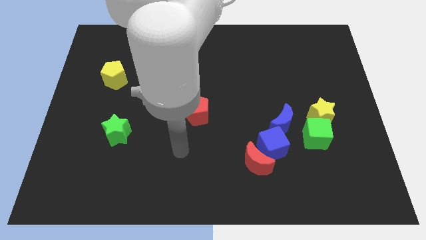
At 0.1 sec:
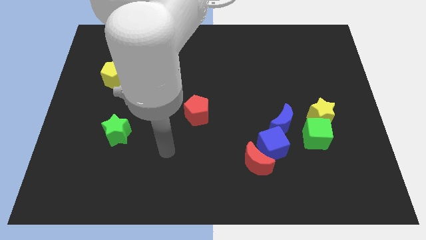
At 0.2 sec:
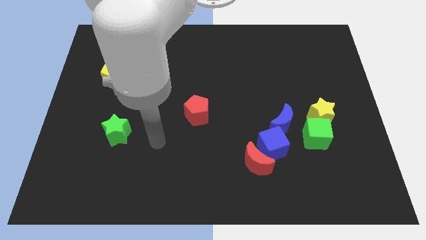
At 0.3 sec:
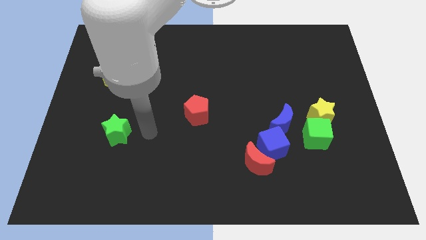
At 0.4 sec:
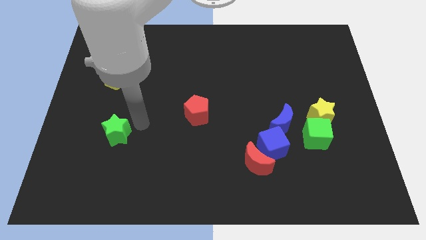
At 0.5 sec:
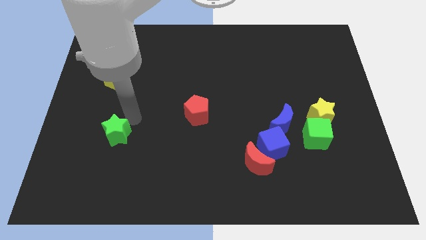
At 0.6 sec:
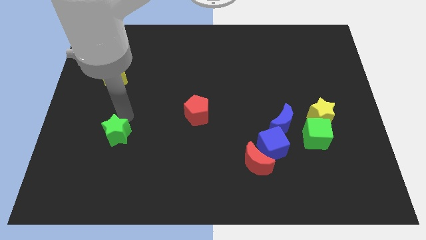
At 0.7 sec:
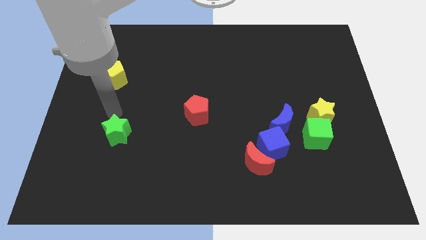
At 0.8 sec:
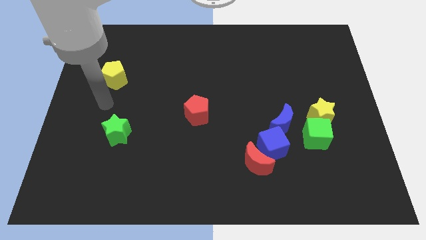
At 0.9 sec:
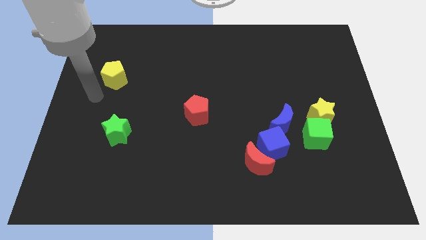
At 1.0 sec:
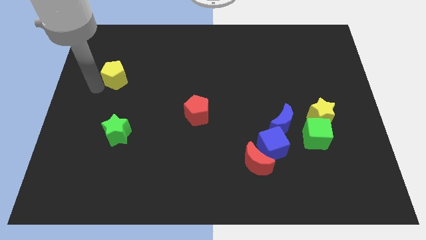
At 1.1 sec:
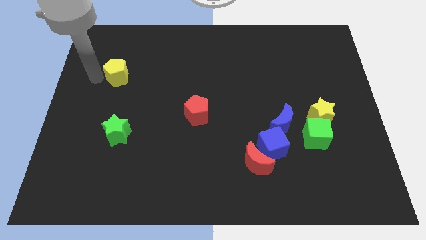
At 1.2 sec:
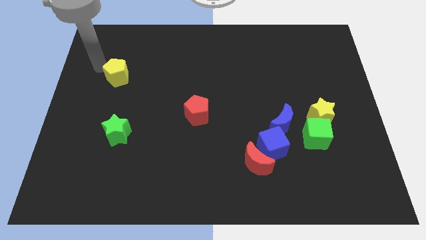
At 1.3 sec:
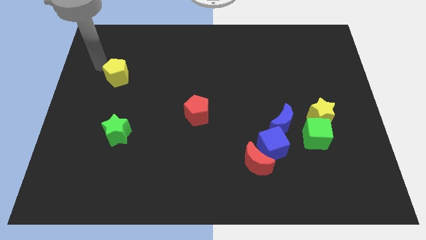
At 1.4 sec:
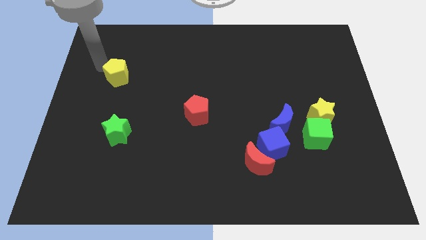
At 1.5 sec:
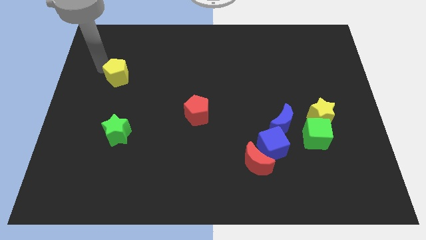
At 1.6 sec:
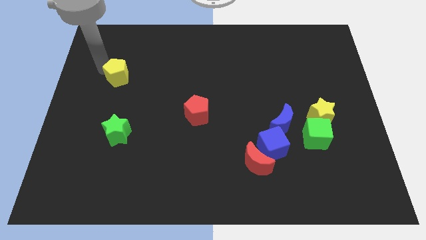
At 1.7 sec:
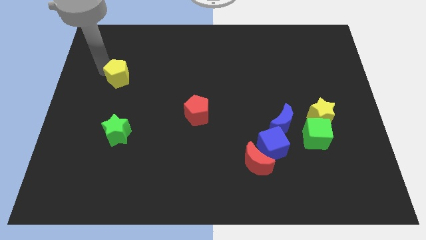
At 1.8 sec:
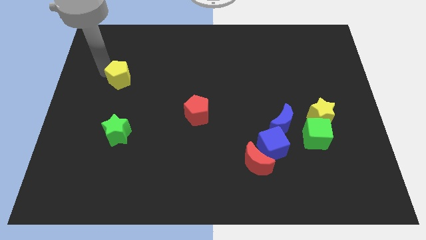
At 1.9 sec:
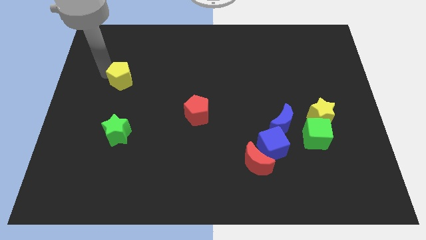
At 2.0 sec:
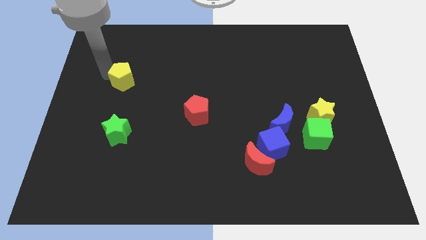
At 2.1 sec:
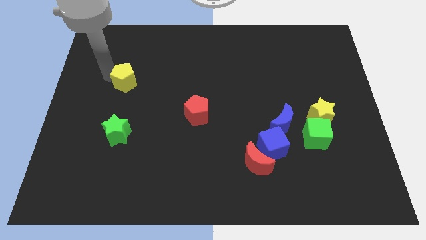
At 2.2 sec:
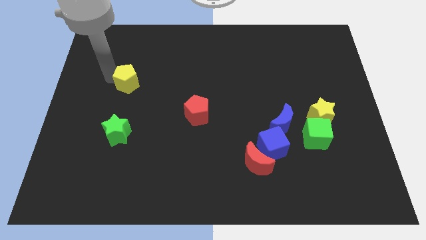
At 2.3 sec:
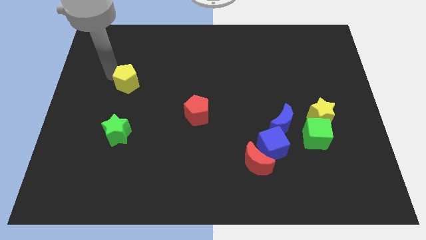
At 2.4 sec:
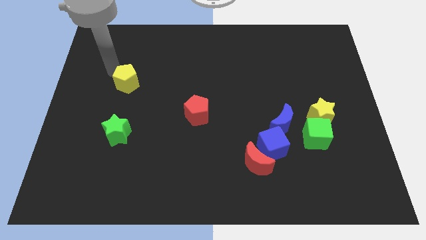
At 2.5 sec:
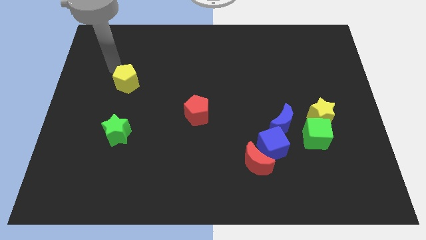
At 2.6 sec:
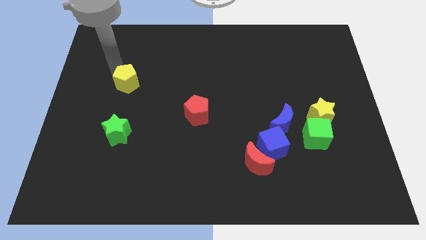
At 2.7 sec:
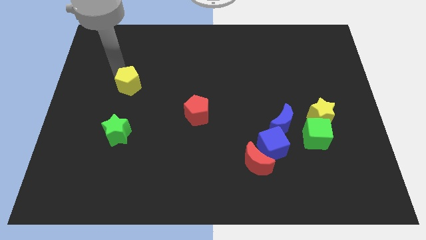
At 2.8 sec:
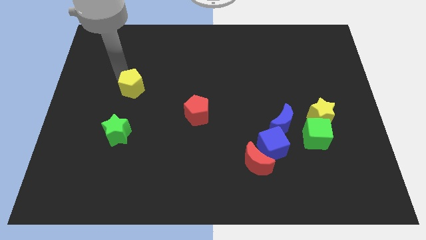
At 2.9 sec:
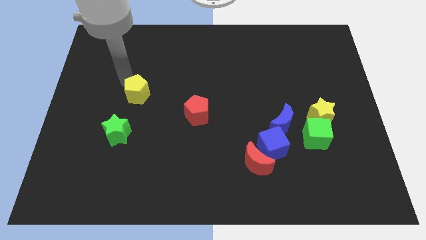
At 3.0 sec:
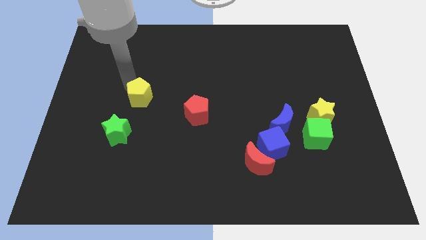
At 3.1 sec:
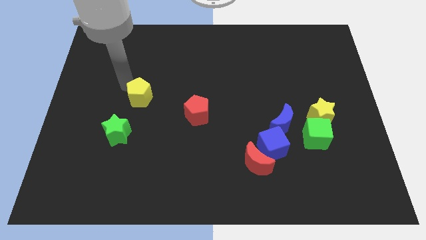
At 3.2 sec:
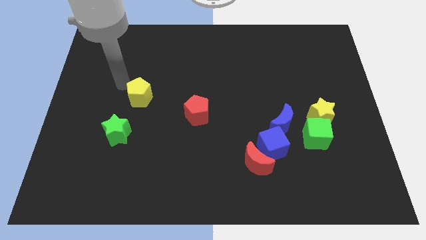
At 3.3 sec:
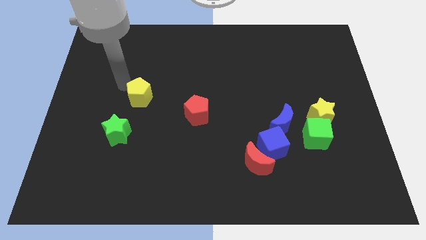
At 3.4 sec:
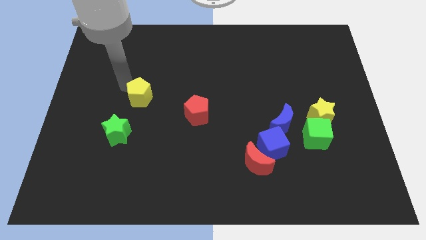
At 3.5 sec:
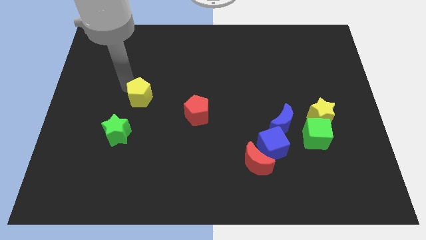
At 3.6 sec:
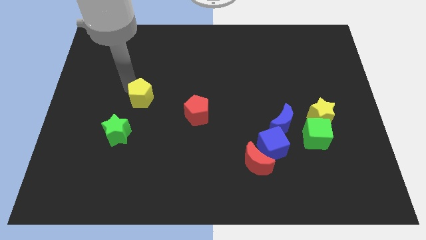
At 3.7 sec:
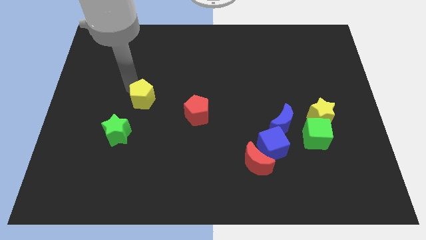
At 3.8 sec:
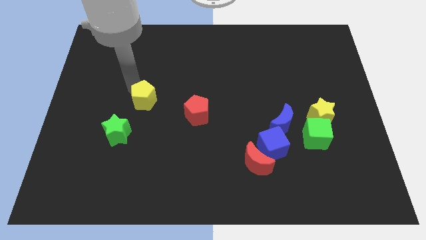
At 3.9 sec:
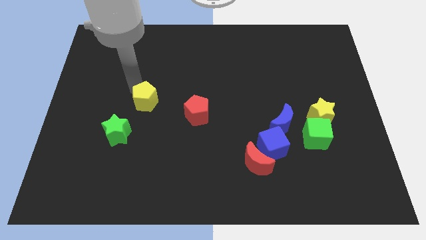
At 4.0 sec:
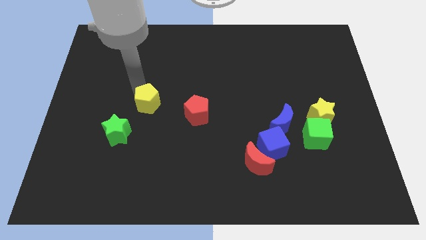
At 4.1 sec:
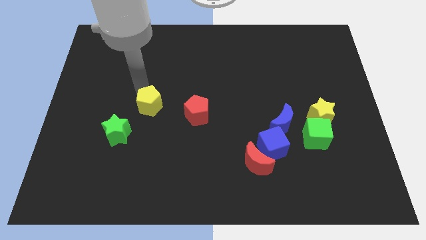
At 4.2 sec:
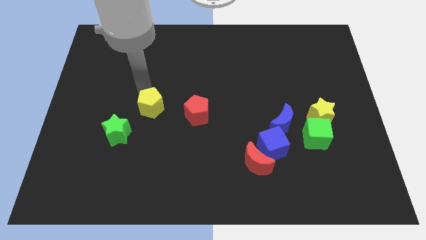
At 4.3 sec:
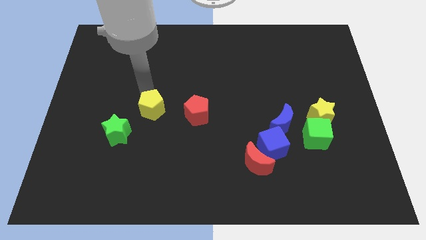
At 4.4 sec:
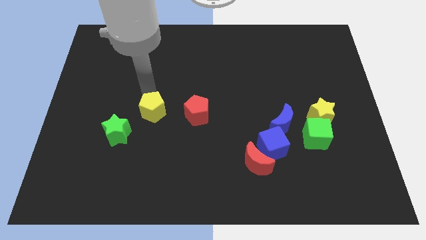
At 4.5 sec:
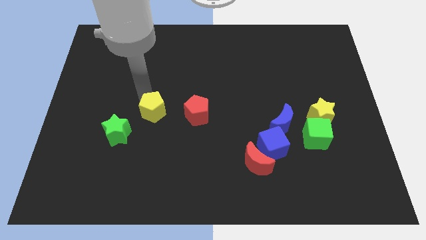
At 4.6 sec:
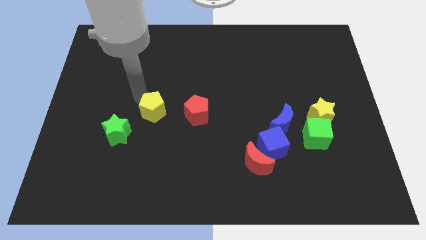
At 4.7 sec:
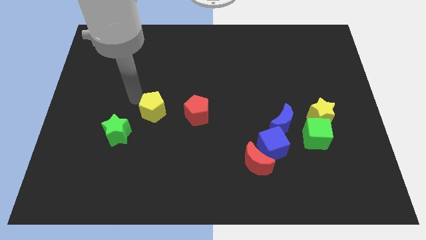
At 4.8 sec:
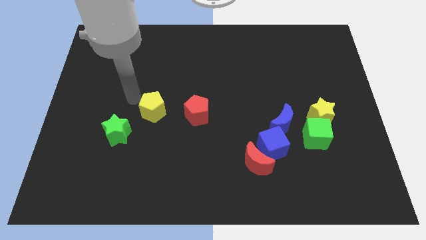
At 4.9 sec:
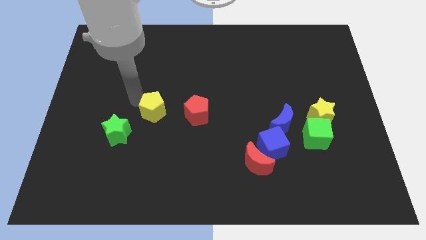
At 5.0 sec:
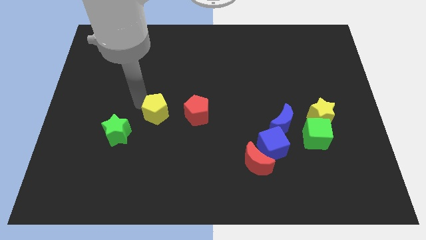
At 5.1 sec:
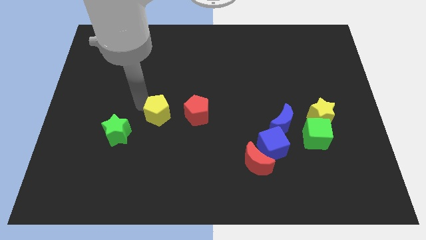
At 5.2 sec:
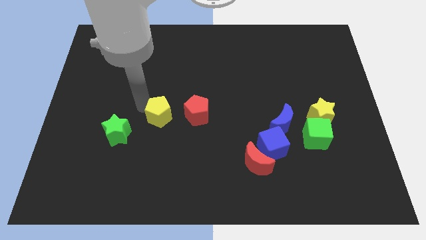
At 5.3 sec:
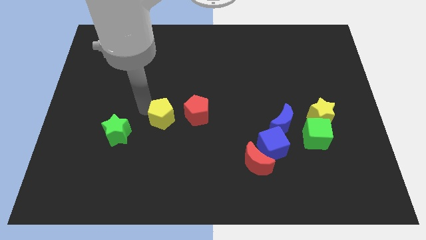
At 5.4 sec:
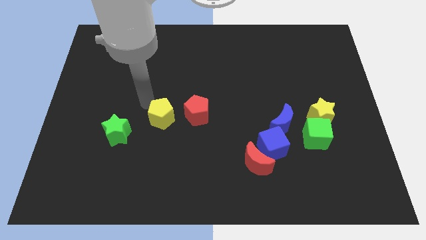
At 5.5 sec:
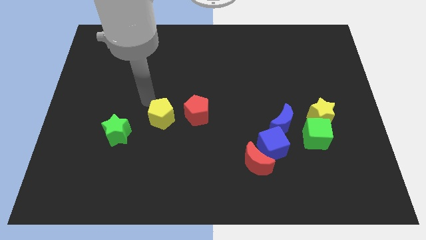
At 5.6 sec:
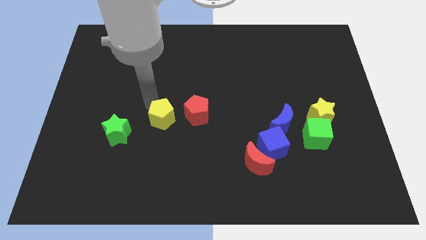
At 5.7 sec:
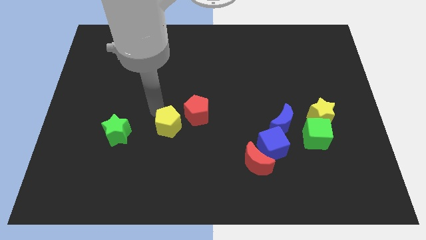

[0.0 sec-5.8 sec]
push the yellow pentagon downwards and right

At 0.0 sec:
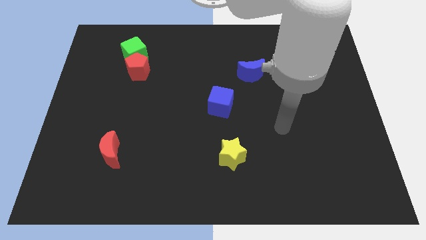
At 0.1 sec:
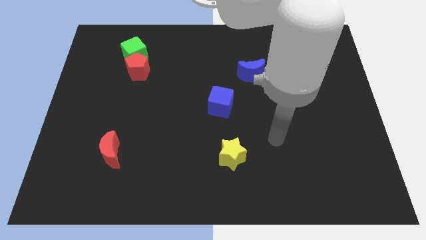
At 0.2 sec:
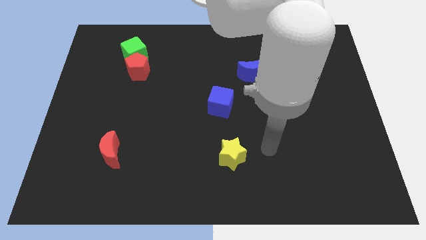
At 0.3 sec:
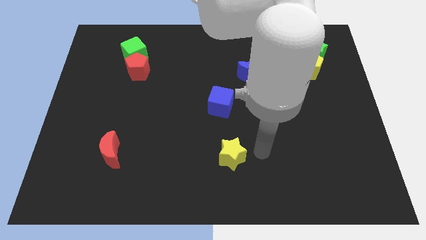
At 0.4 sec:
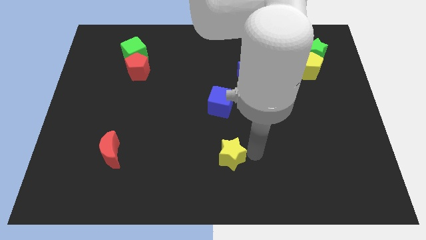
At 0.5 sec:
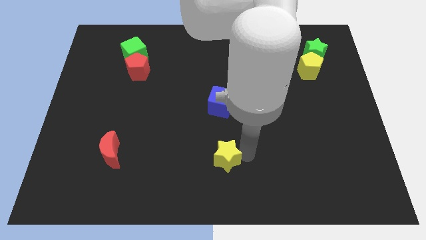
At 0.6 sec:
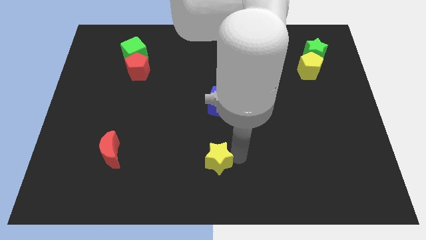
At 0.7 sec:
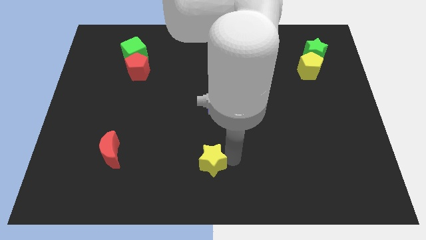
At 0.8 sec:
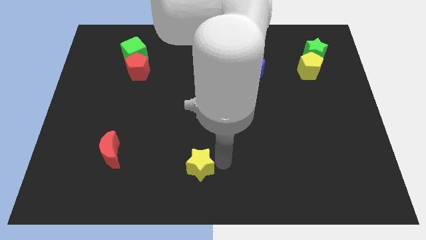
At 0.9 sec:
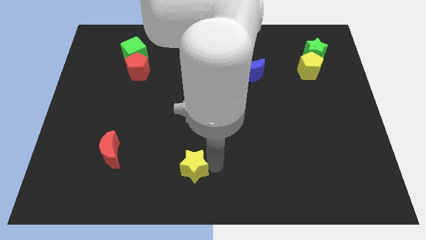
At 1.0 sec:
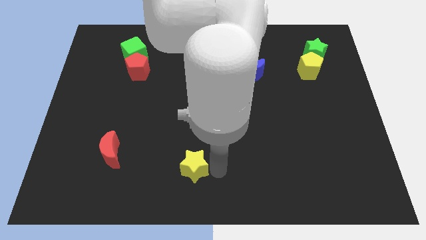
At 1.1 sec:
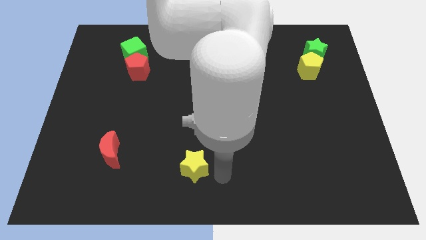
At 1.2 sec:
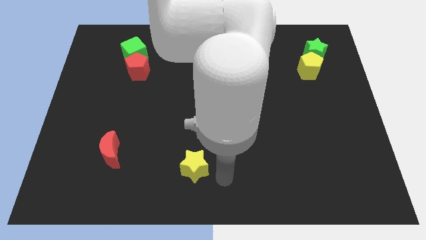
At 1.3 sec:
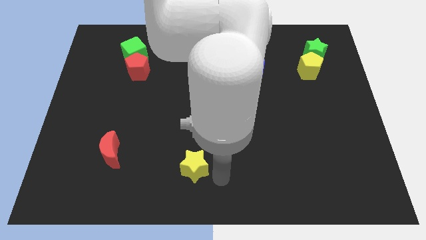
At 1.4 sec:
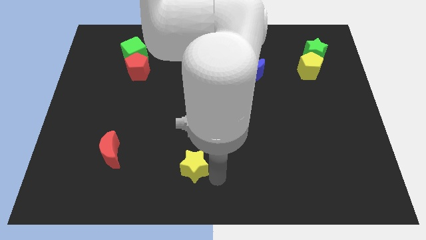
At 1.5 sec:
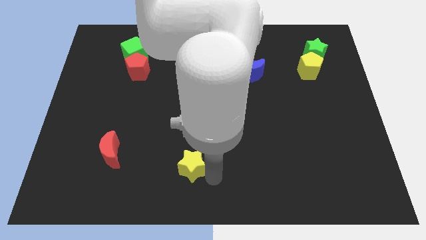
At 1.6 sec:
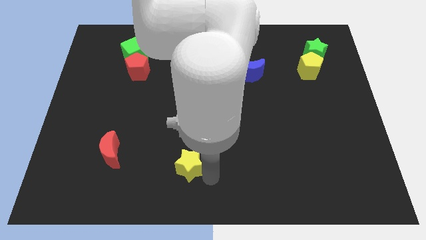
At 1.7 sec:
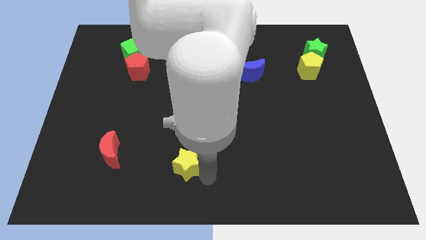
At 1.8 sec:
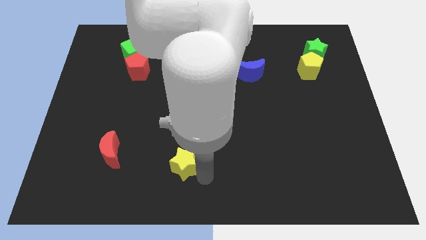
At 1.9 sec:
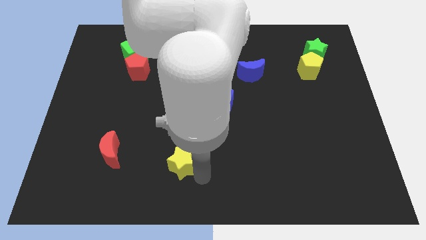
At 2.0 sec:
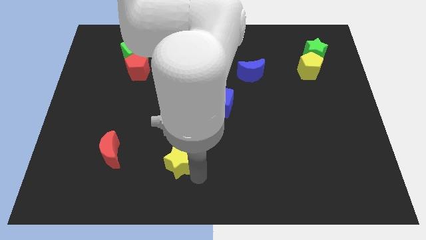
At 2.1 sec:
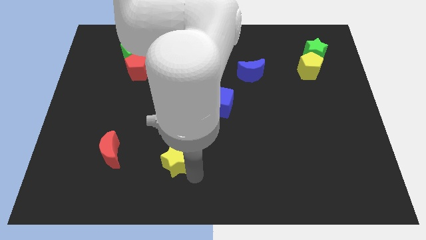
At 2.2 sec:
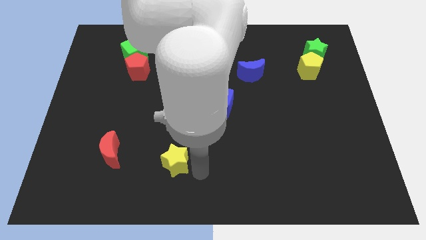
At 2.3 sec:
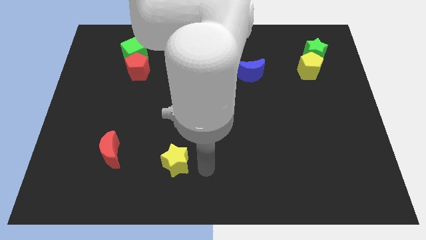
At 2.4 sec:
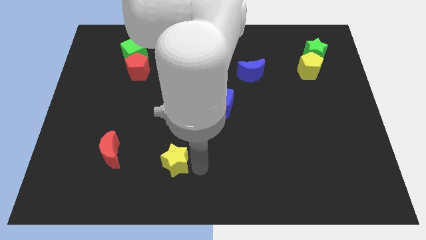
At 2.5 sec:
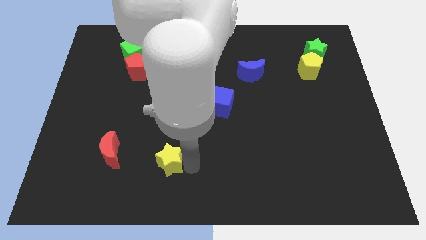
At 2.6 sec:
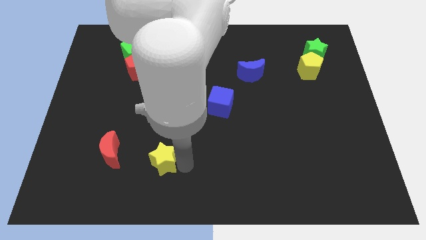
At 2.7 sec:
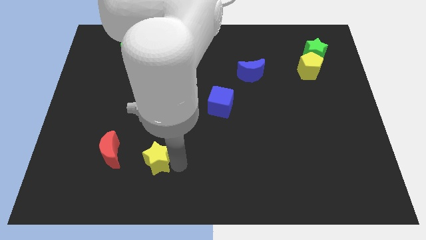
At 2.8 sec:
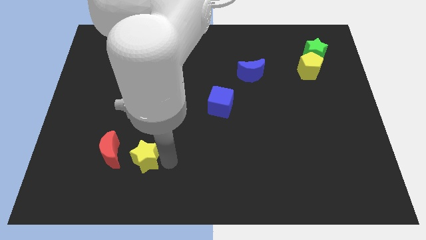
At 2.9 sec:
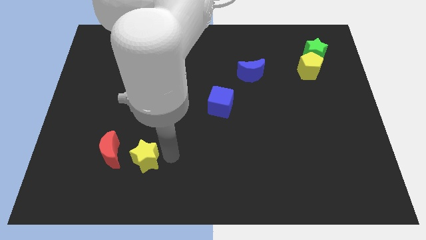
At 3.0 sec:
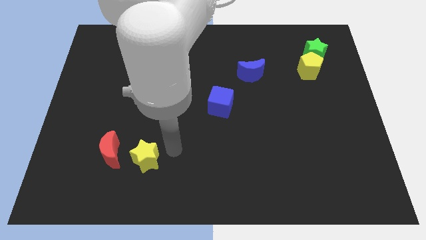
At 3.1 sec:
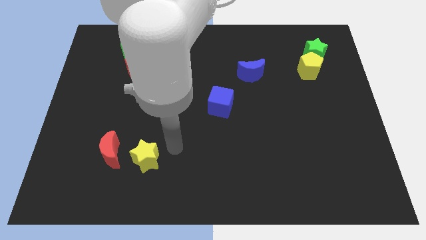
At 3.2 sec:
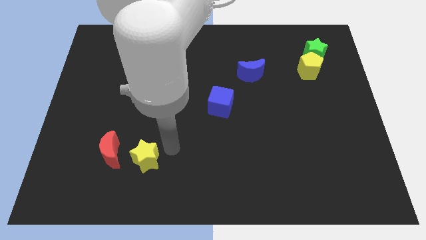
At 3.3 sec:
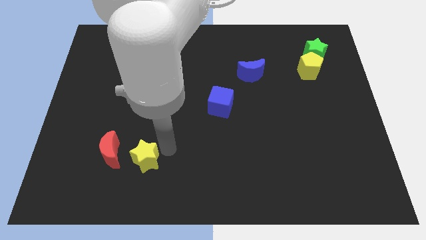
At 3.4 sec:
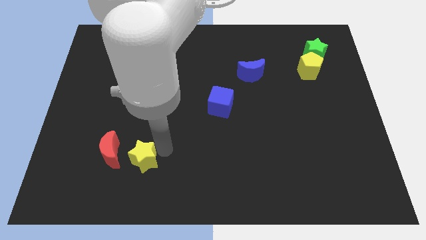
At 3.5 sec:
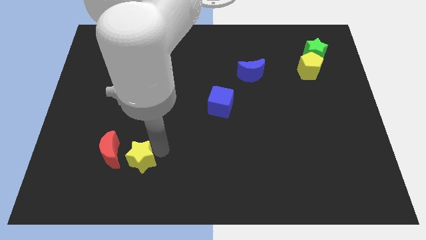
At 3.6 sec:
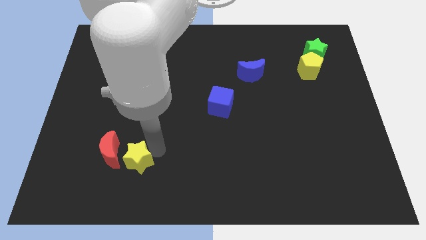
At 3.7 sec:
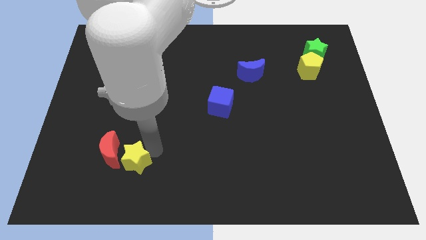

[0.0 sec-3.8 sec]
slide the yellow star to the left
